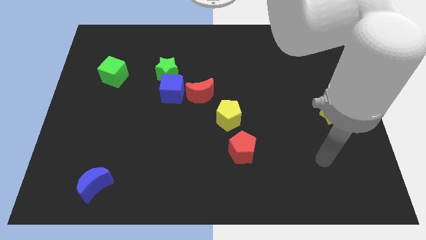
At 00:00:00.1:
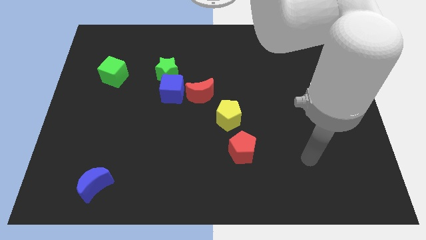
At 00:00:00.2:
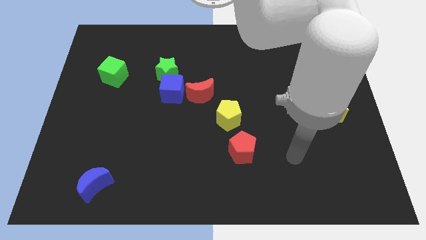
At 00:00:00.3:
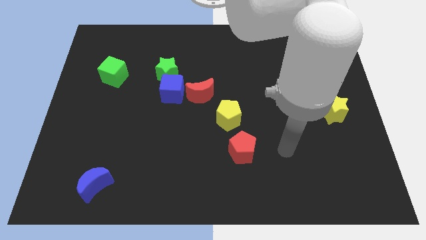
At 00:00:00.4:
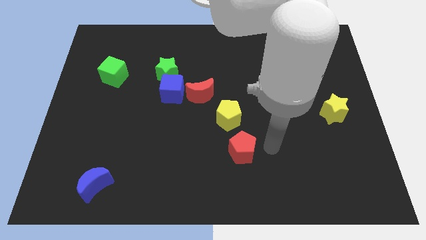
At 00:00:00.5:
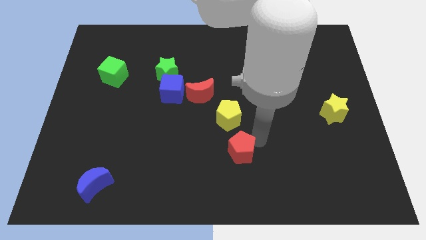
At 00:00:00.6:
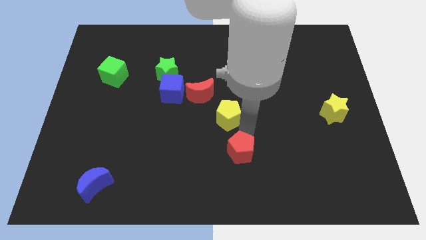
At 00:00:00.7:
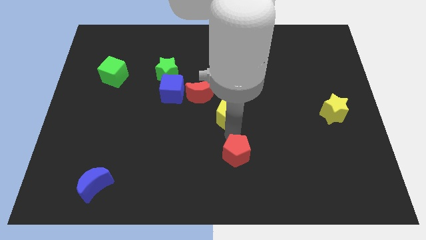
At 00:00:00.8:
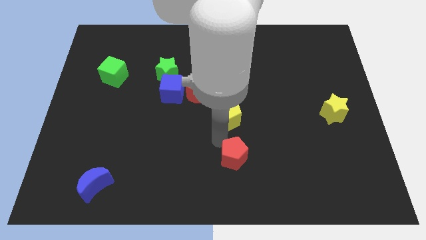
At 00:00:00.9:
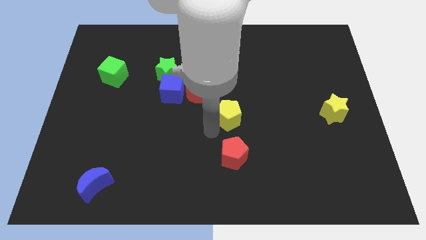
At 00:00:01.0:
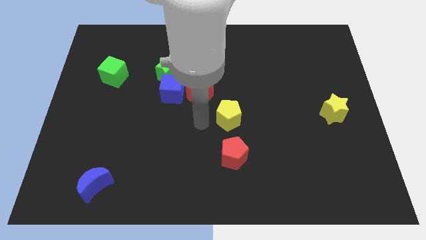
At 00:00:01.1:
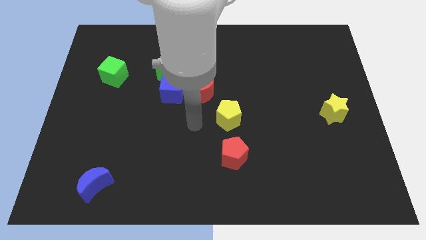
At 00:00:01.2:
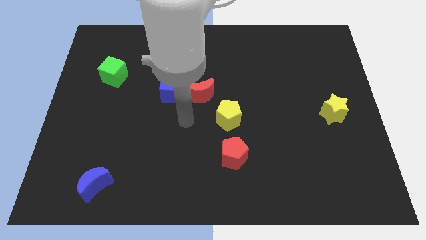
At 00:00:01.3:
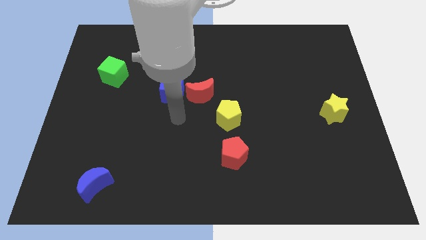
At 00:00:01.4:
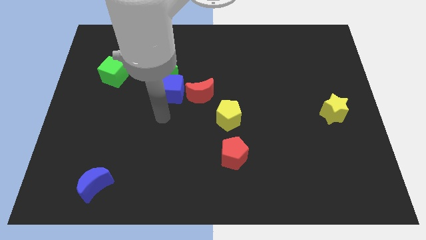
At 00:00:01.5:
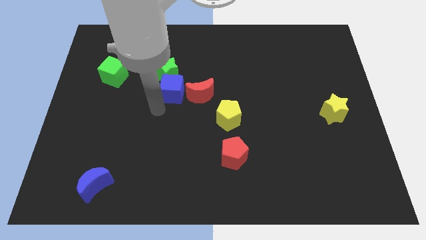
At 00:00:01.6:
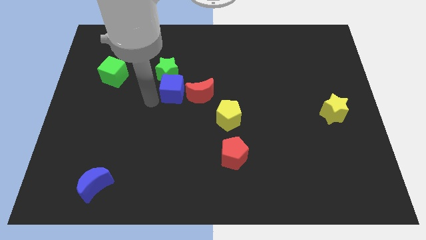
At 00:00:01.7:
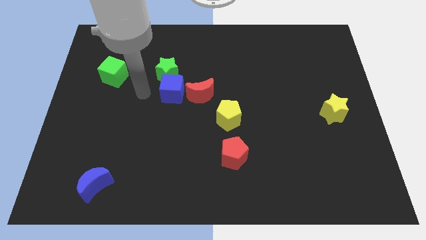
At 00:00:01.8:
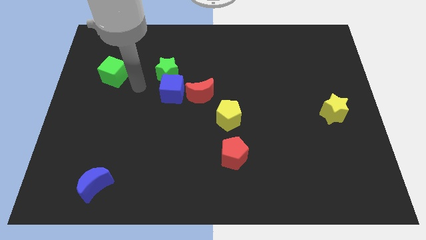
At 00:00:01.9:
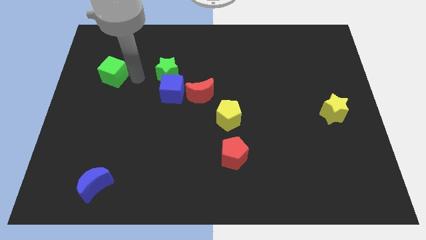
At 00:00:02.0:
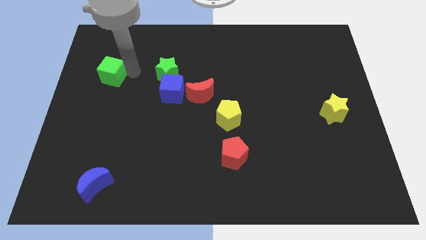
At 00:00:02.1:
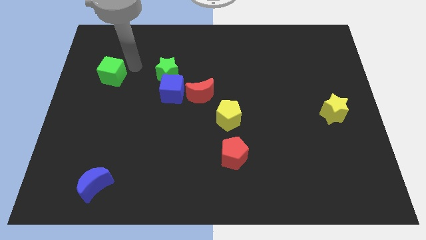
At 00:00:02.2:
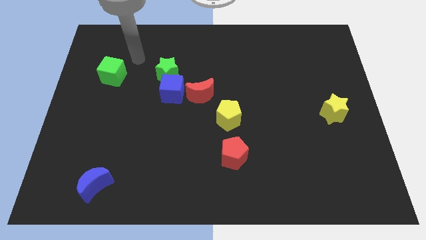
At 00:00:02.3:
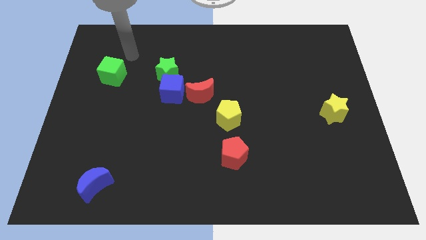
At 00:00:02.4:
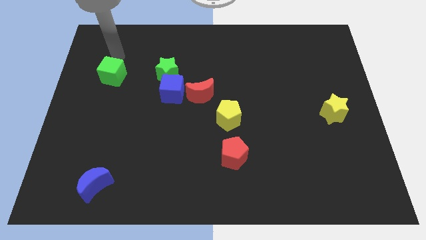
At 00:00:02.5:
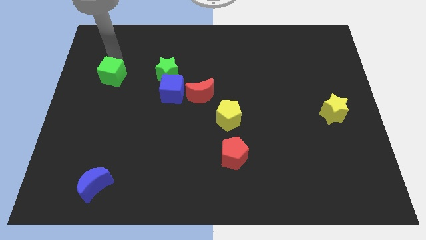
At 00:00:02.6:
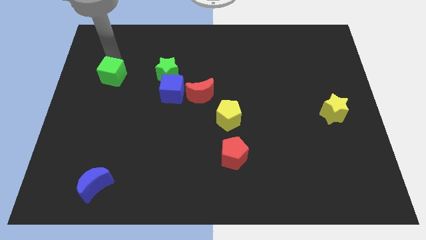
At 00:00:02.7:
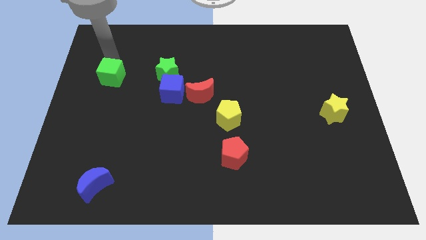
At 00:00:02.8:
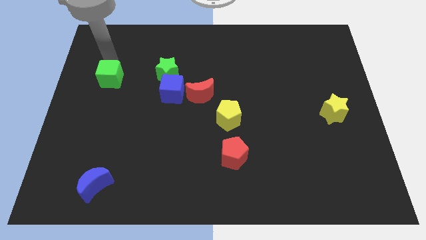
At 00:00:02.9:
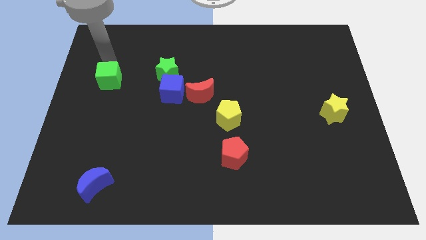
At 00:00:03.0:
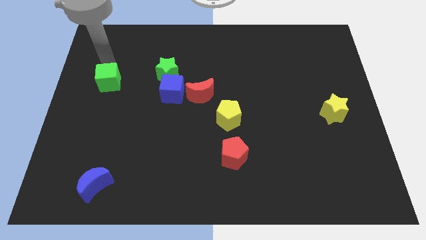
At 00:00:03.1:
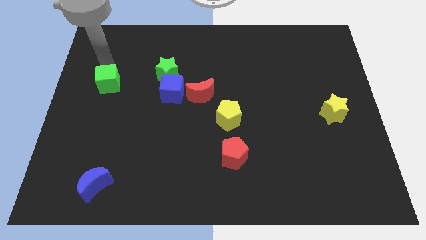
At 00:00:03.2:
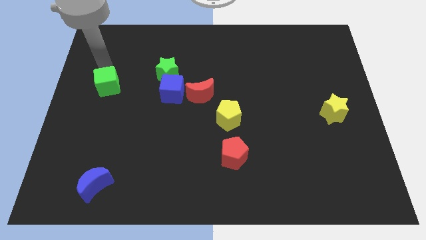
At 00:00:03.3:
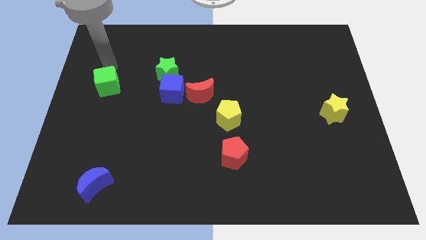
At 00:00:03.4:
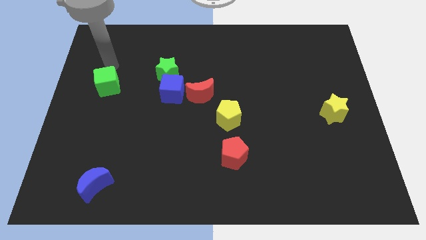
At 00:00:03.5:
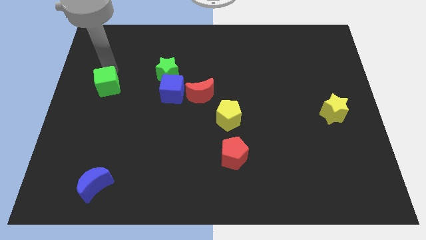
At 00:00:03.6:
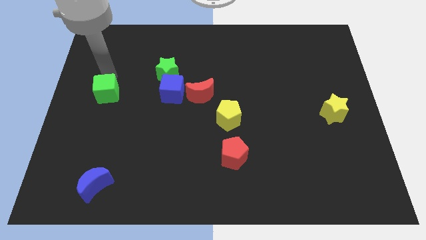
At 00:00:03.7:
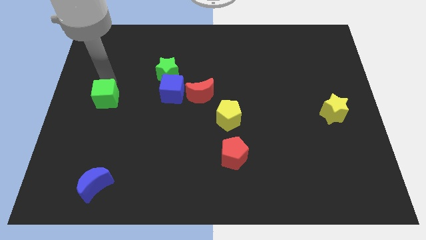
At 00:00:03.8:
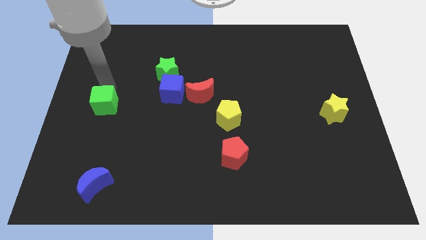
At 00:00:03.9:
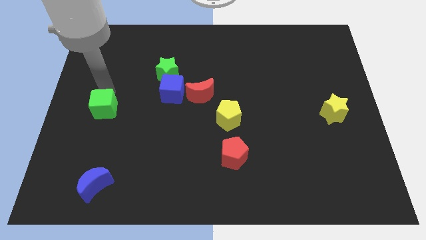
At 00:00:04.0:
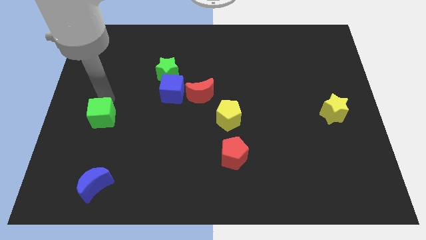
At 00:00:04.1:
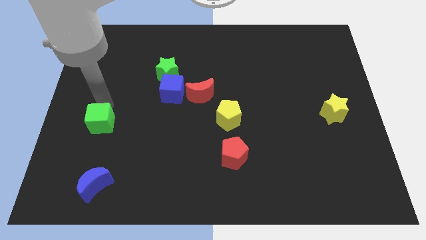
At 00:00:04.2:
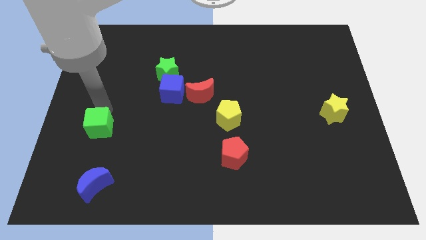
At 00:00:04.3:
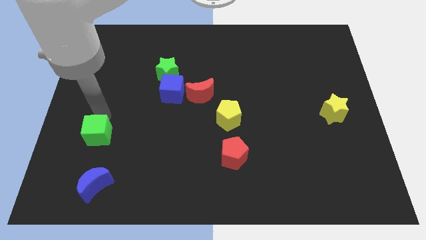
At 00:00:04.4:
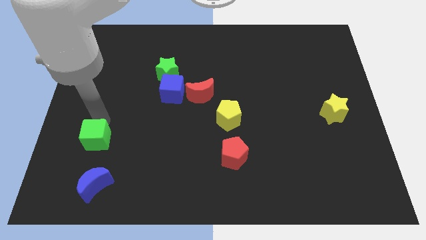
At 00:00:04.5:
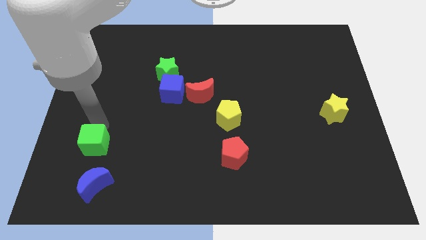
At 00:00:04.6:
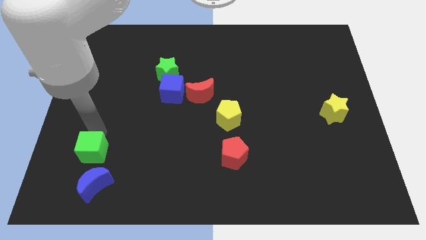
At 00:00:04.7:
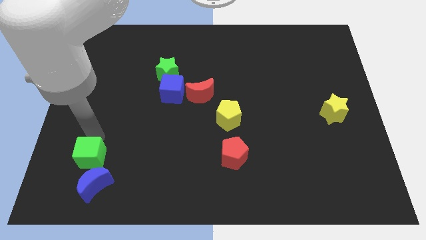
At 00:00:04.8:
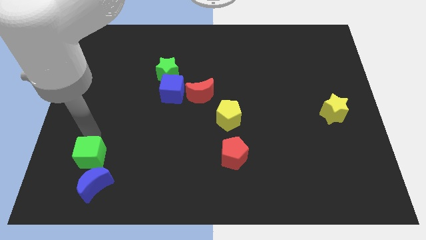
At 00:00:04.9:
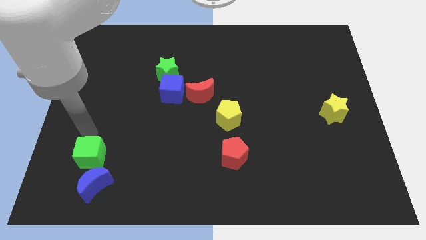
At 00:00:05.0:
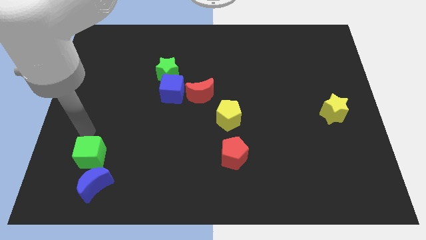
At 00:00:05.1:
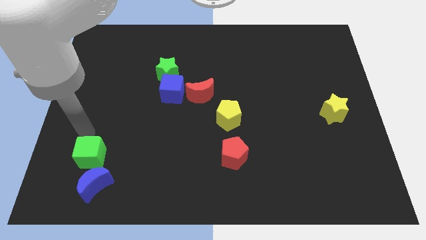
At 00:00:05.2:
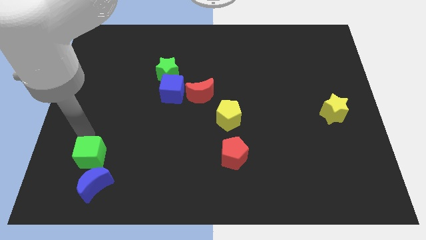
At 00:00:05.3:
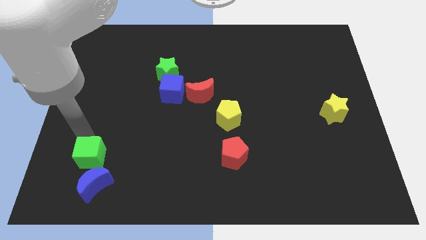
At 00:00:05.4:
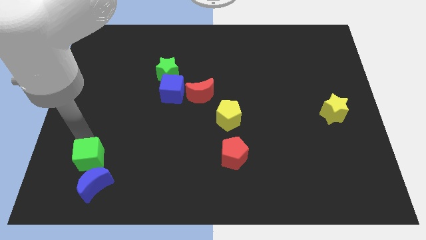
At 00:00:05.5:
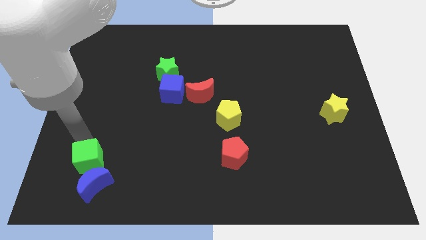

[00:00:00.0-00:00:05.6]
put the green cube to the blue moon

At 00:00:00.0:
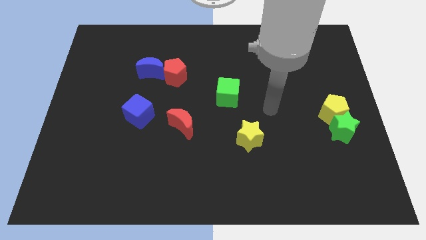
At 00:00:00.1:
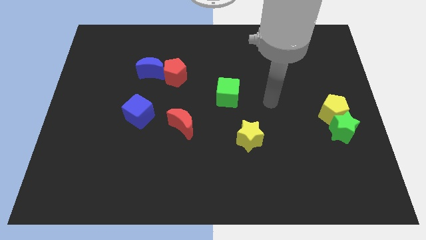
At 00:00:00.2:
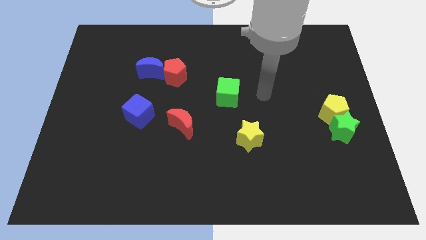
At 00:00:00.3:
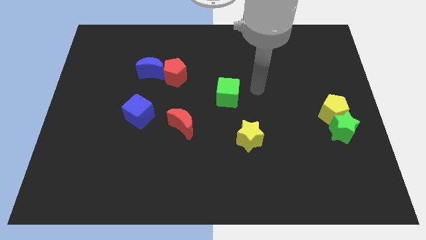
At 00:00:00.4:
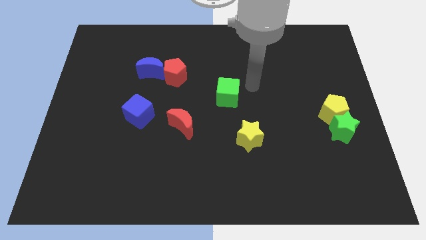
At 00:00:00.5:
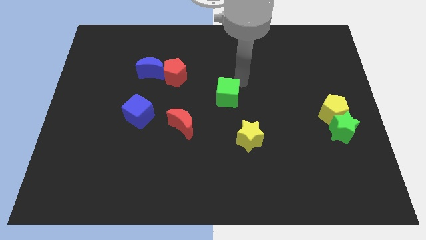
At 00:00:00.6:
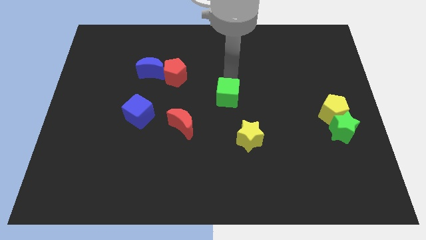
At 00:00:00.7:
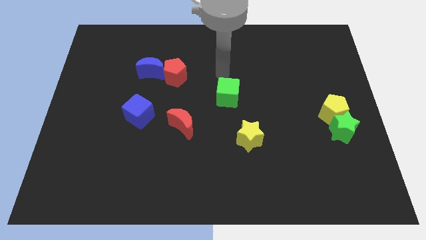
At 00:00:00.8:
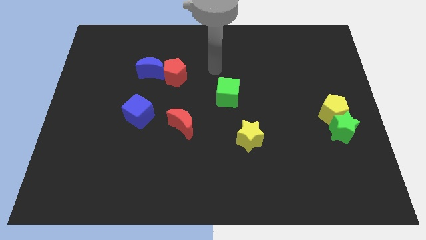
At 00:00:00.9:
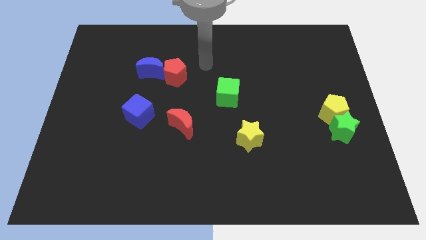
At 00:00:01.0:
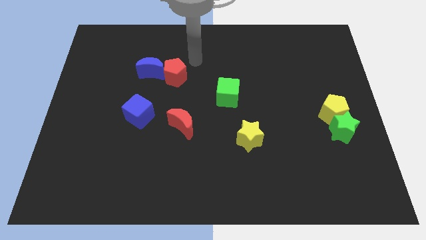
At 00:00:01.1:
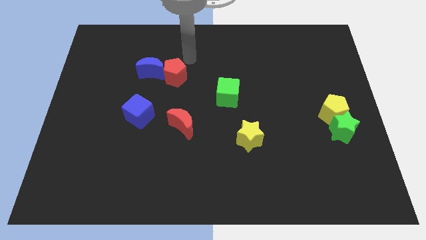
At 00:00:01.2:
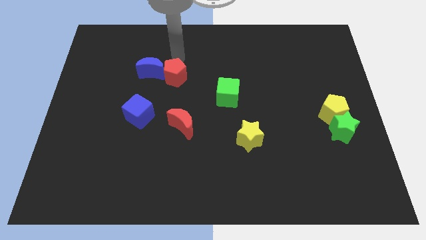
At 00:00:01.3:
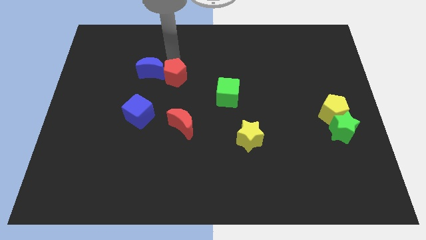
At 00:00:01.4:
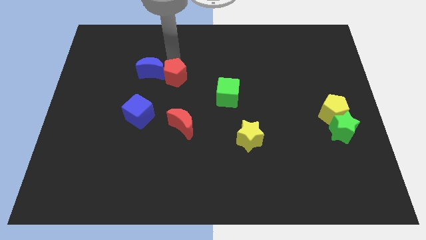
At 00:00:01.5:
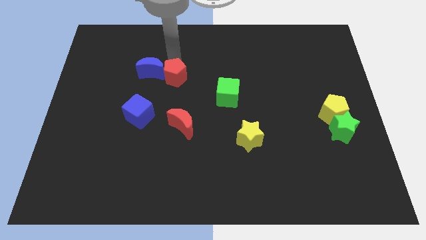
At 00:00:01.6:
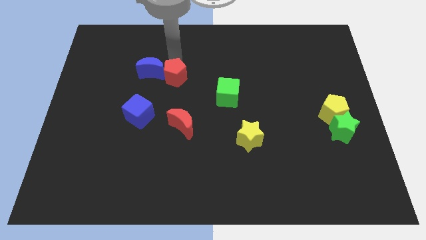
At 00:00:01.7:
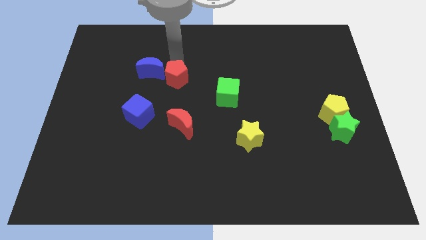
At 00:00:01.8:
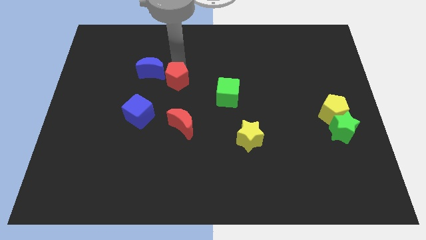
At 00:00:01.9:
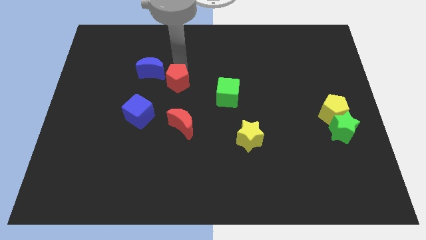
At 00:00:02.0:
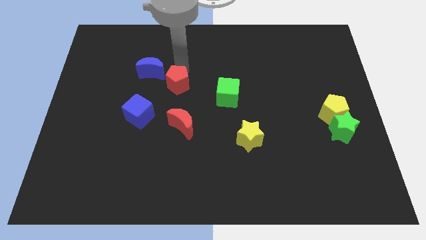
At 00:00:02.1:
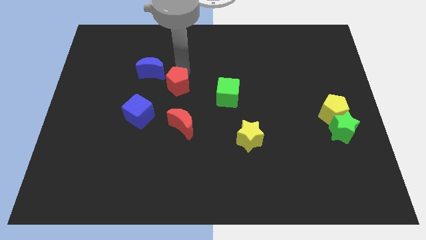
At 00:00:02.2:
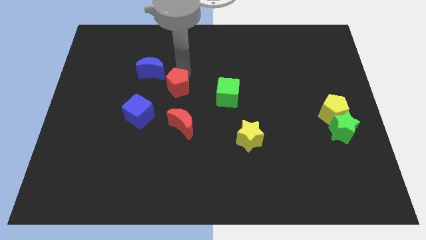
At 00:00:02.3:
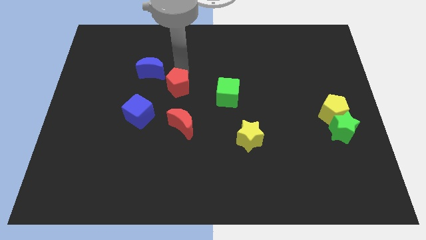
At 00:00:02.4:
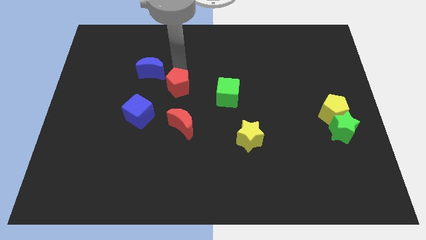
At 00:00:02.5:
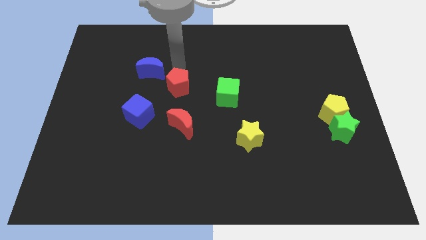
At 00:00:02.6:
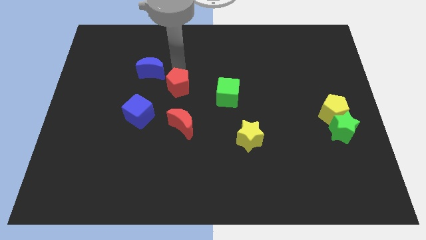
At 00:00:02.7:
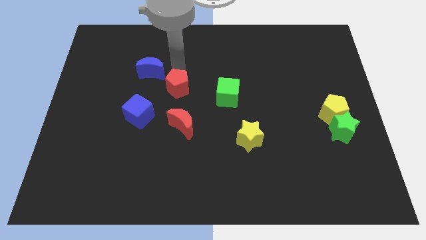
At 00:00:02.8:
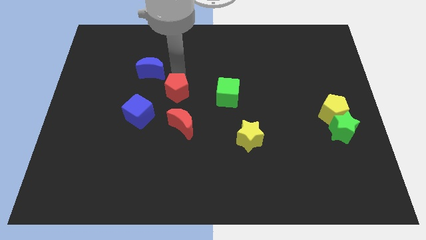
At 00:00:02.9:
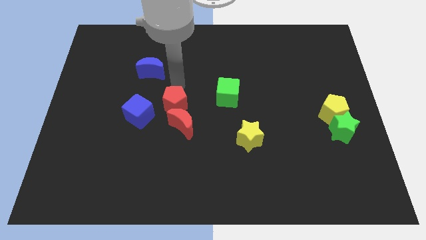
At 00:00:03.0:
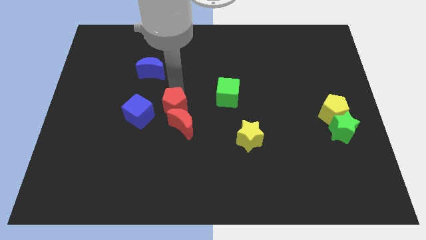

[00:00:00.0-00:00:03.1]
move the red pentagon next to the red moon
